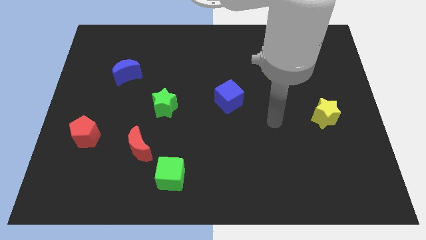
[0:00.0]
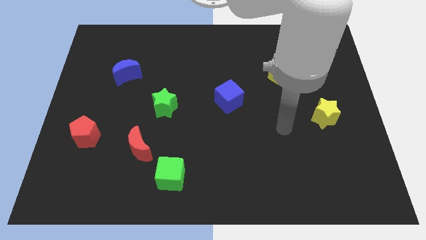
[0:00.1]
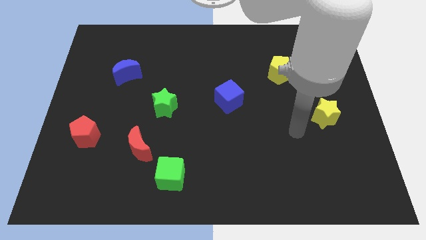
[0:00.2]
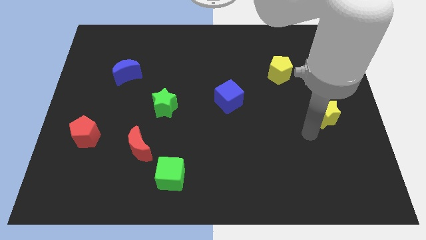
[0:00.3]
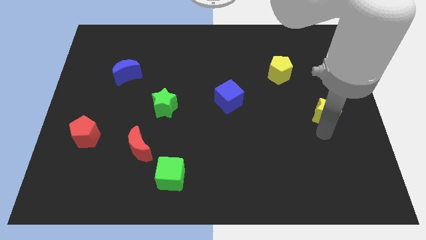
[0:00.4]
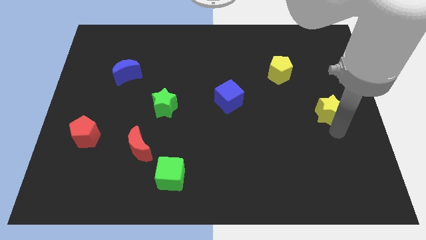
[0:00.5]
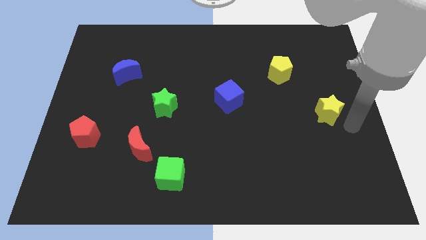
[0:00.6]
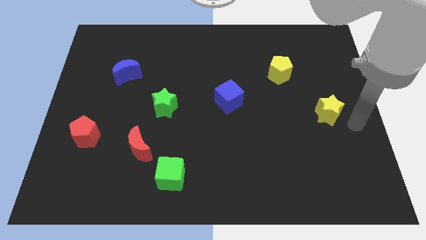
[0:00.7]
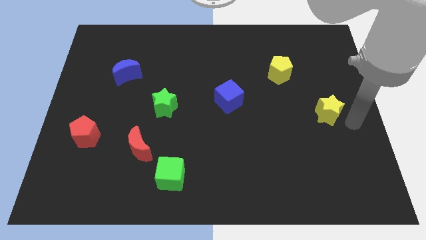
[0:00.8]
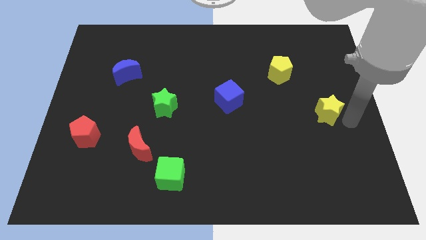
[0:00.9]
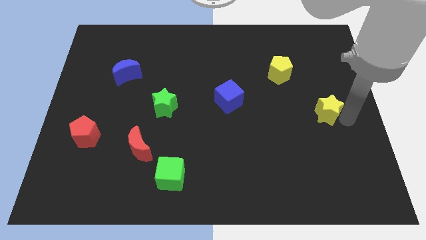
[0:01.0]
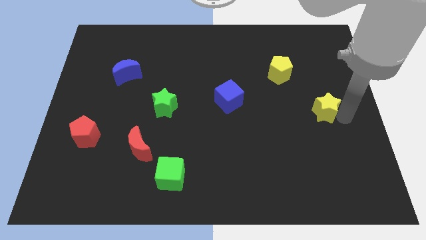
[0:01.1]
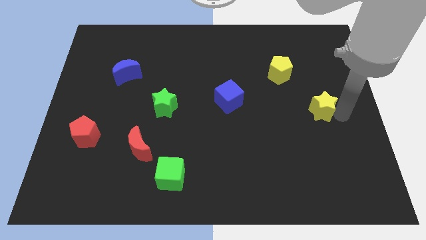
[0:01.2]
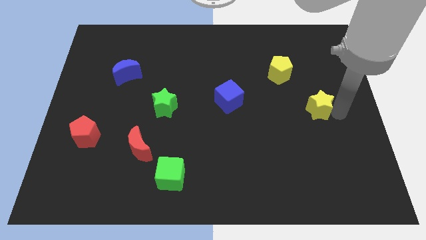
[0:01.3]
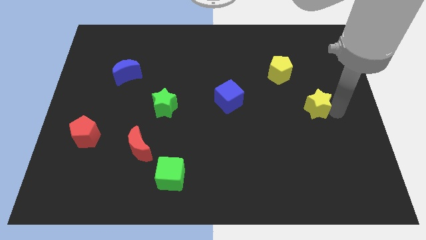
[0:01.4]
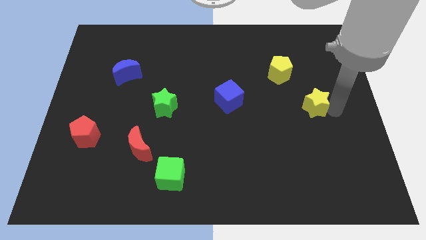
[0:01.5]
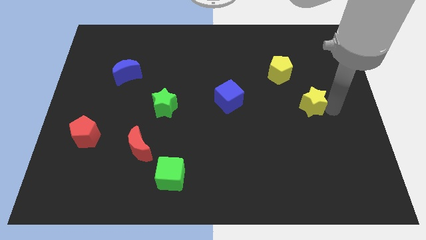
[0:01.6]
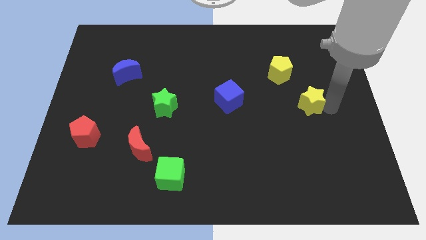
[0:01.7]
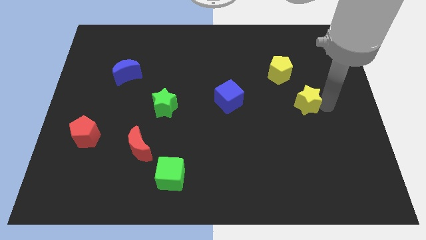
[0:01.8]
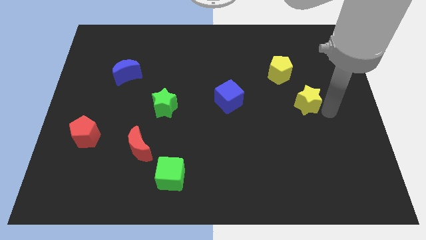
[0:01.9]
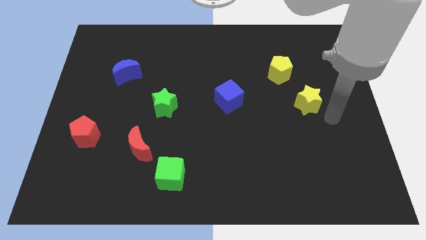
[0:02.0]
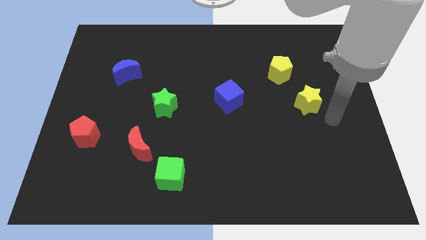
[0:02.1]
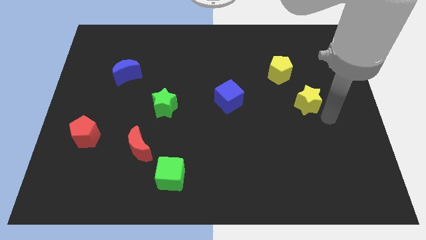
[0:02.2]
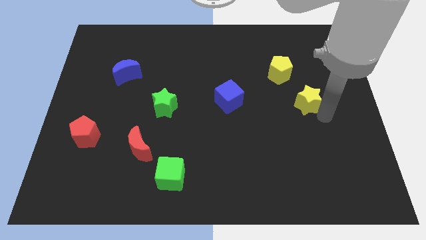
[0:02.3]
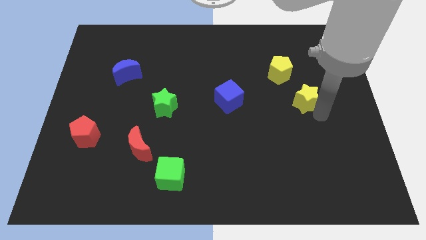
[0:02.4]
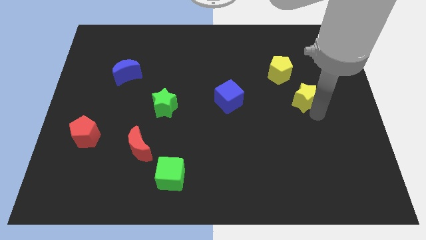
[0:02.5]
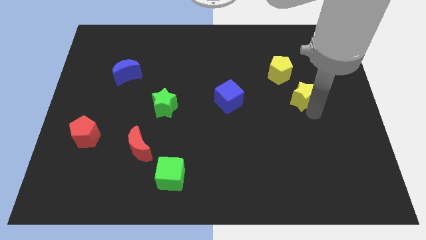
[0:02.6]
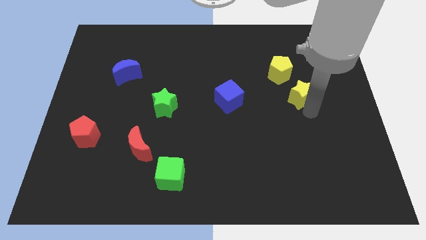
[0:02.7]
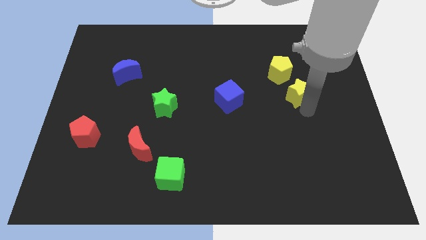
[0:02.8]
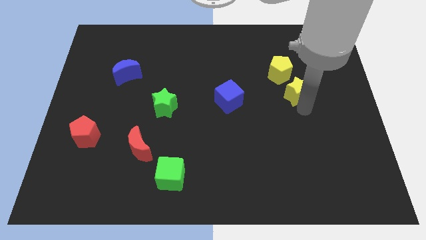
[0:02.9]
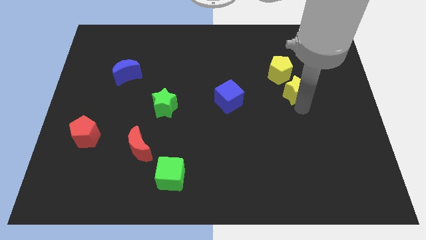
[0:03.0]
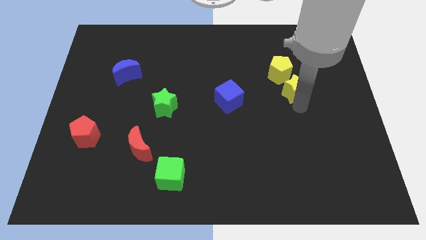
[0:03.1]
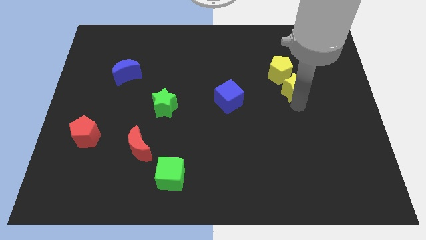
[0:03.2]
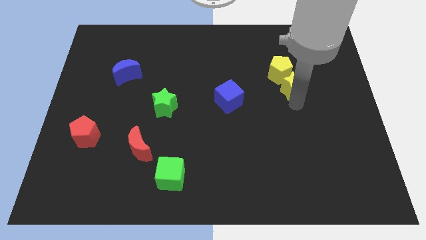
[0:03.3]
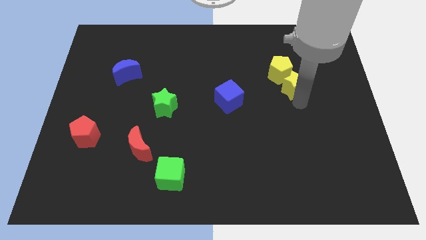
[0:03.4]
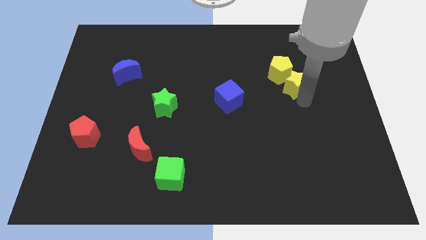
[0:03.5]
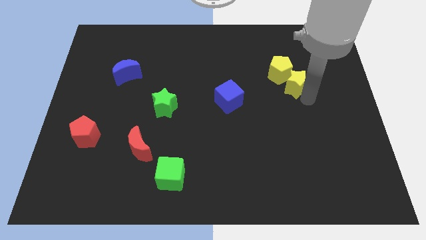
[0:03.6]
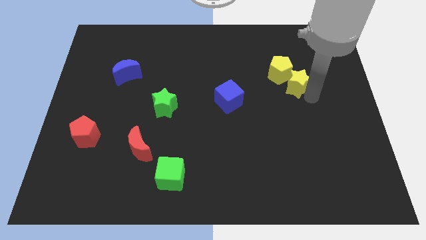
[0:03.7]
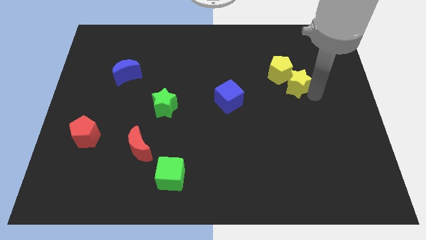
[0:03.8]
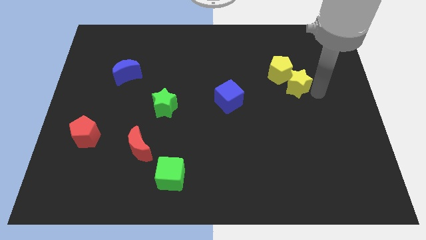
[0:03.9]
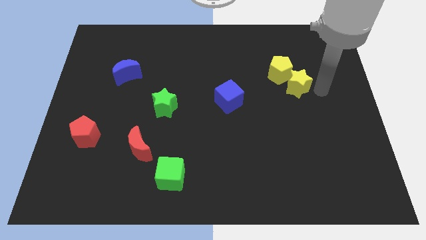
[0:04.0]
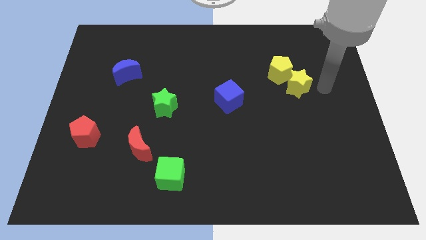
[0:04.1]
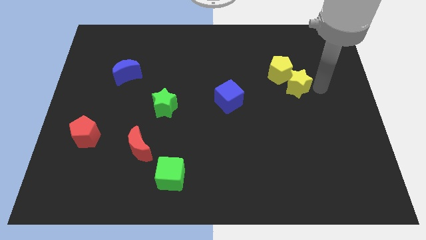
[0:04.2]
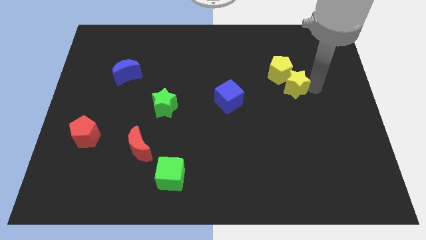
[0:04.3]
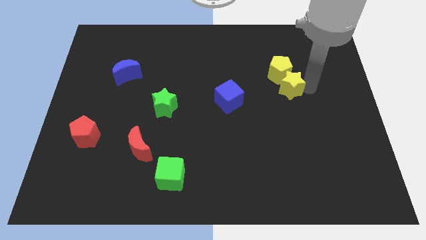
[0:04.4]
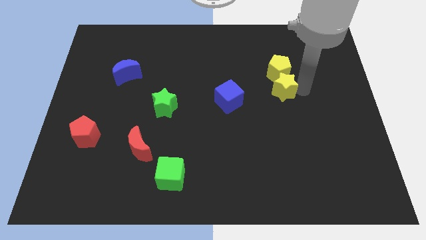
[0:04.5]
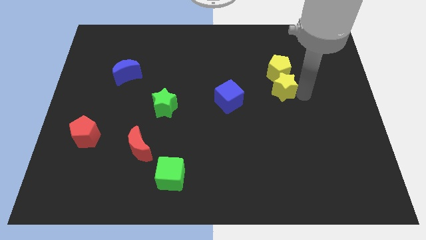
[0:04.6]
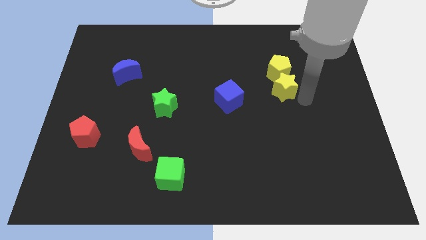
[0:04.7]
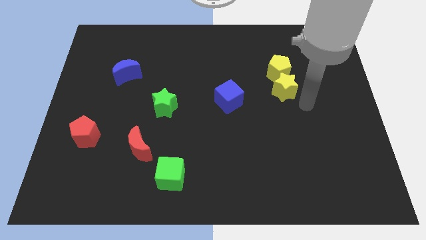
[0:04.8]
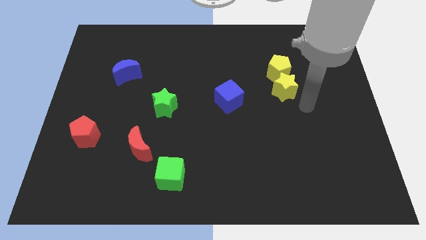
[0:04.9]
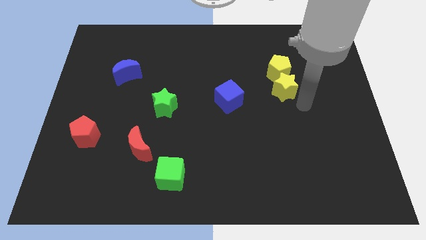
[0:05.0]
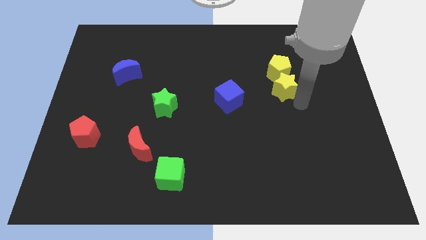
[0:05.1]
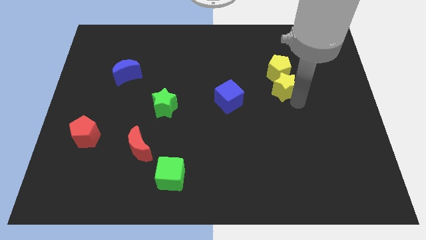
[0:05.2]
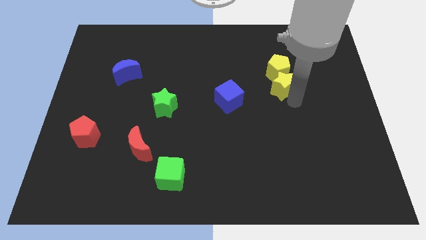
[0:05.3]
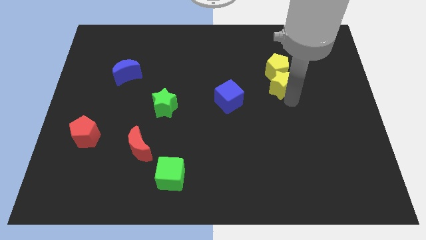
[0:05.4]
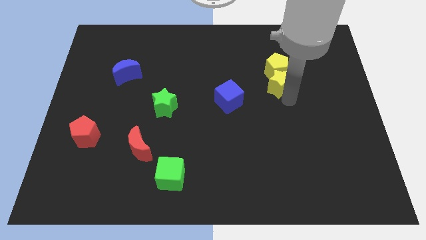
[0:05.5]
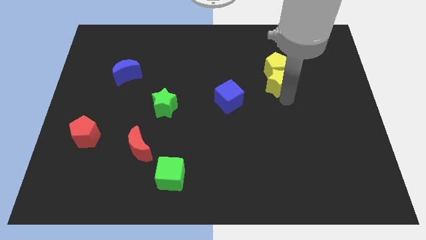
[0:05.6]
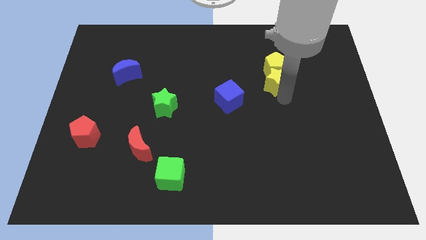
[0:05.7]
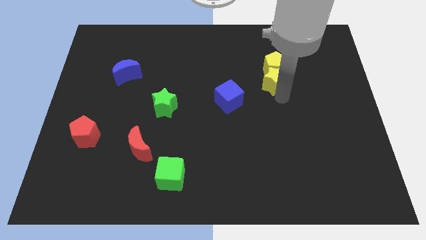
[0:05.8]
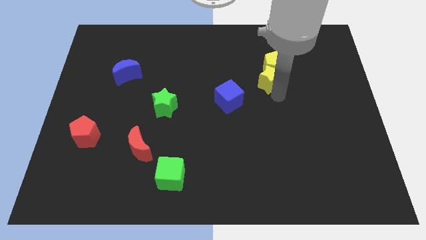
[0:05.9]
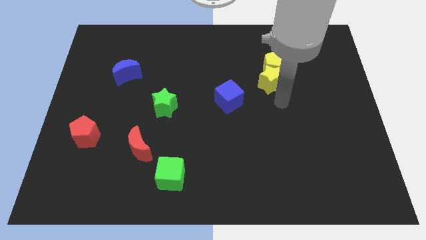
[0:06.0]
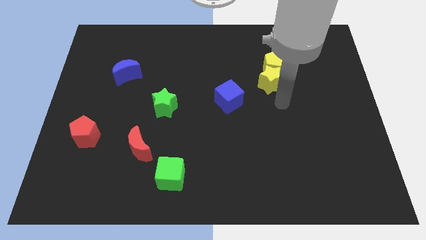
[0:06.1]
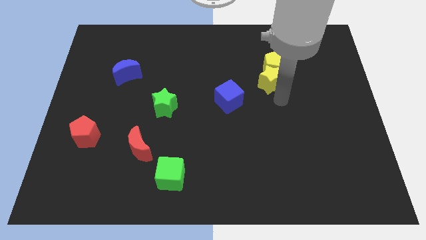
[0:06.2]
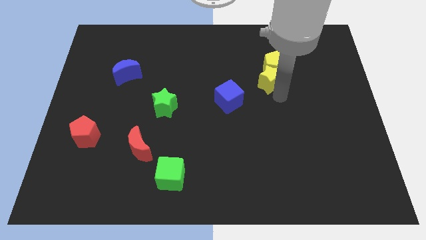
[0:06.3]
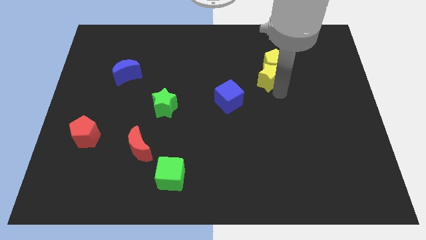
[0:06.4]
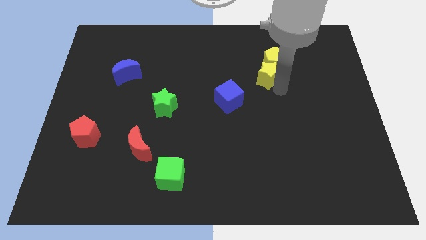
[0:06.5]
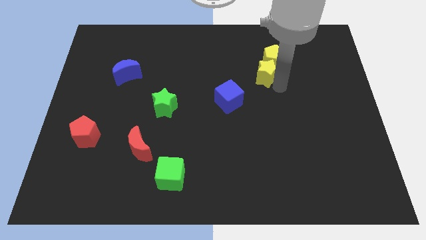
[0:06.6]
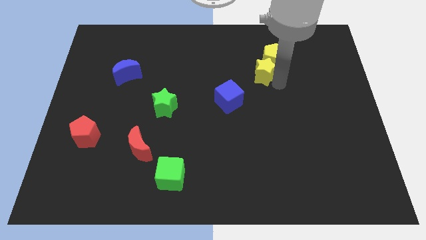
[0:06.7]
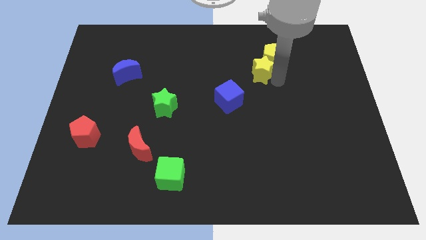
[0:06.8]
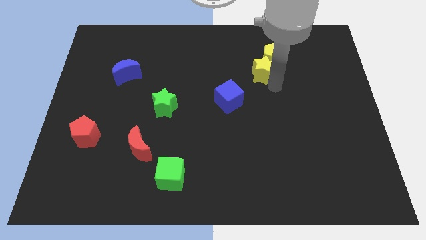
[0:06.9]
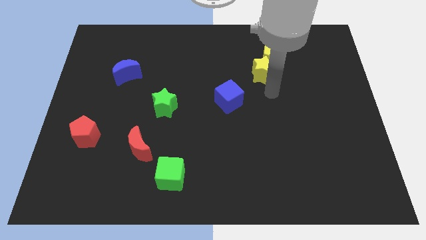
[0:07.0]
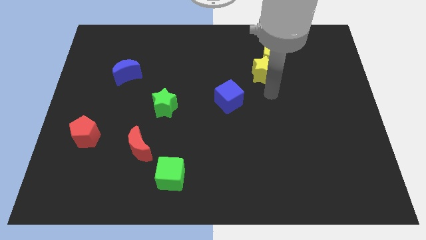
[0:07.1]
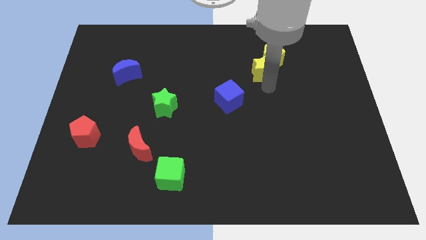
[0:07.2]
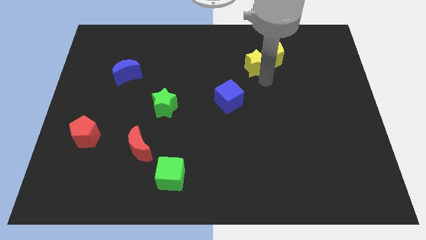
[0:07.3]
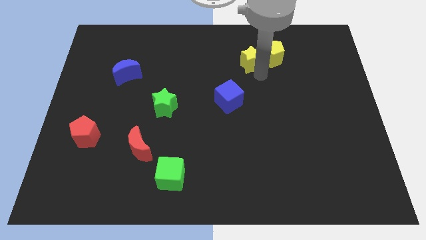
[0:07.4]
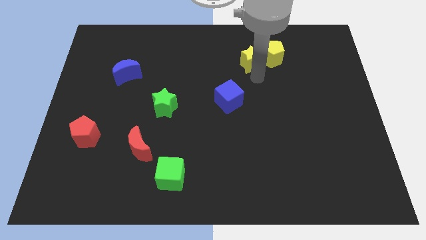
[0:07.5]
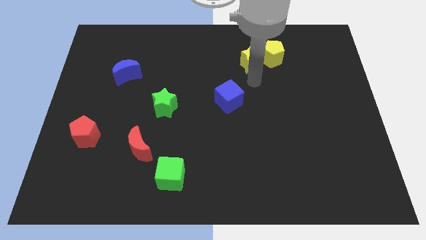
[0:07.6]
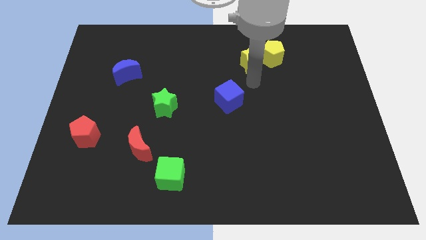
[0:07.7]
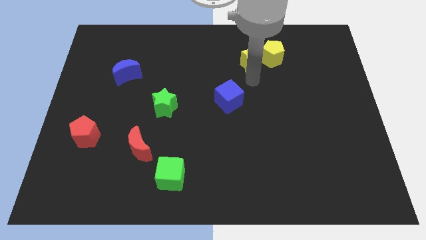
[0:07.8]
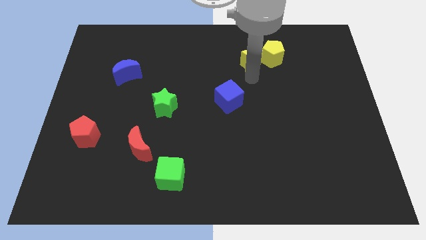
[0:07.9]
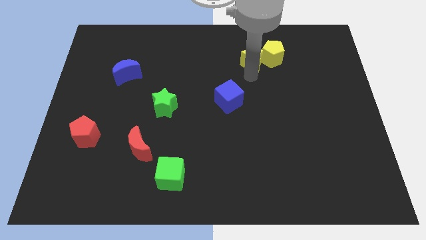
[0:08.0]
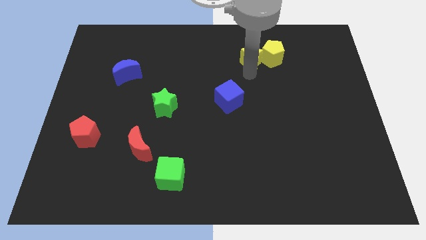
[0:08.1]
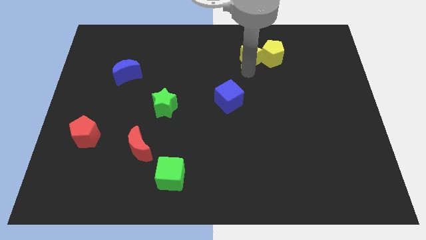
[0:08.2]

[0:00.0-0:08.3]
push the yellow star to the top left of the yellow pentagon
